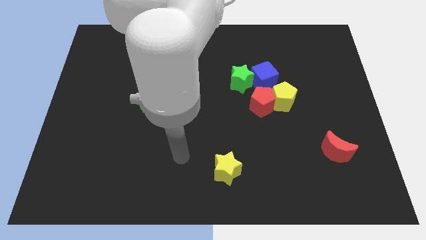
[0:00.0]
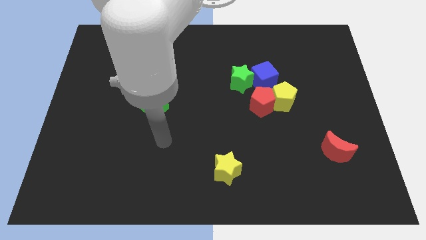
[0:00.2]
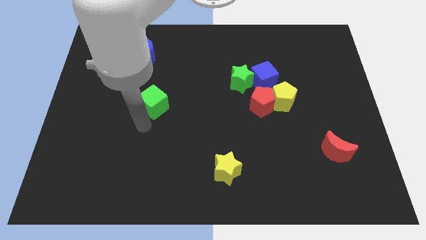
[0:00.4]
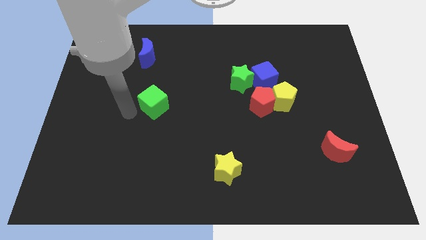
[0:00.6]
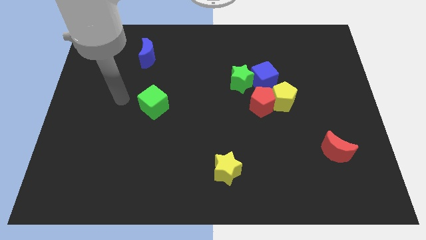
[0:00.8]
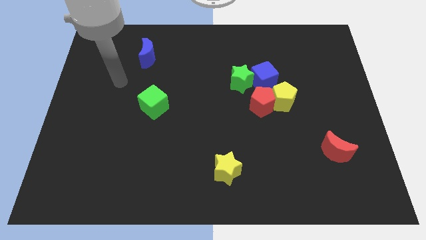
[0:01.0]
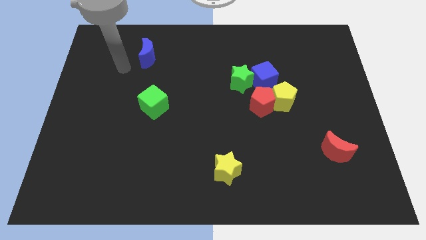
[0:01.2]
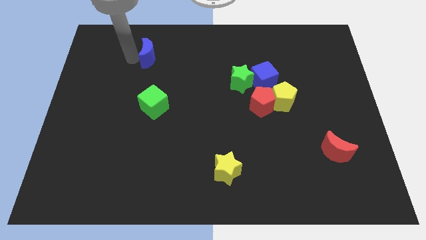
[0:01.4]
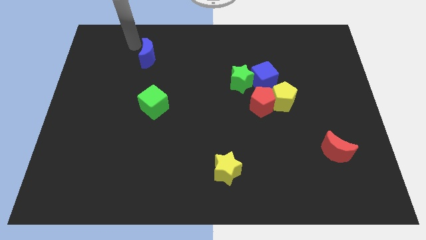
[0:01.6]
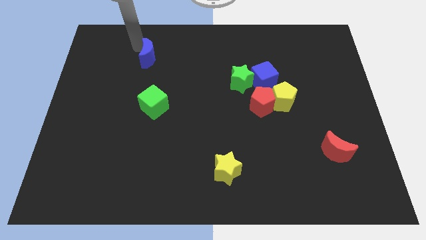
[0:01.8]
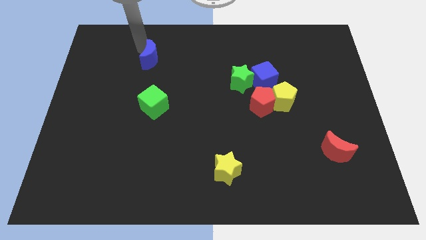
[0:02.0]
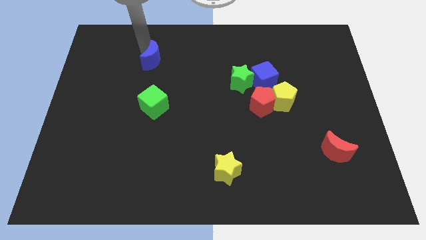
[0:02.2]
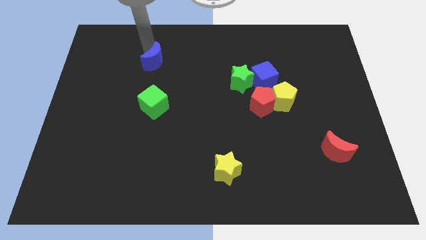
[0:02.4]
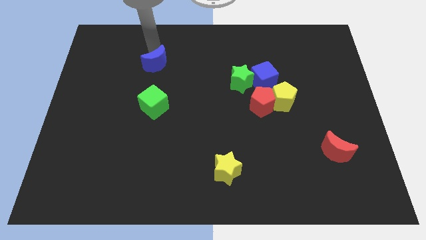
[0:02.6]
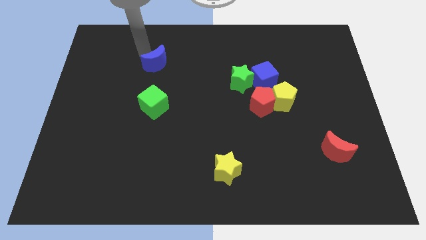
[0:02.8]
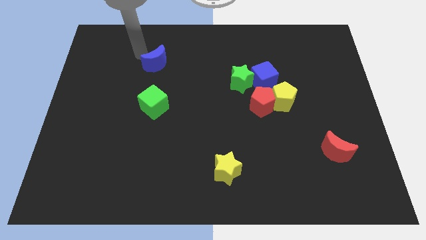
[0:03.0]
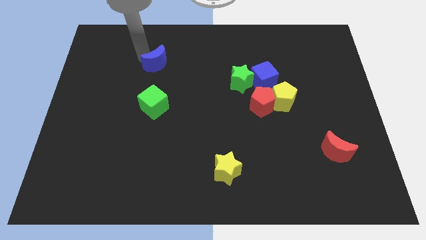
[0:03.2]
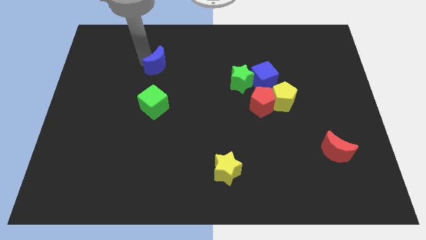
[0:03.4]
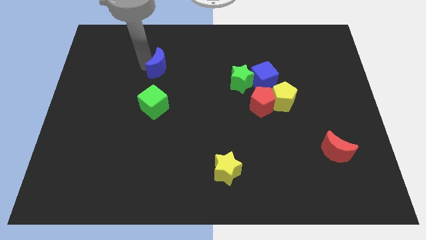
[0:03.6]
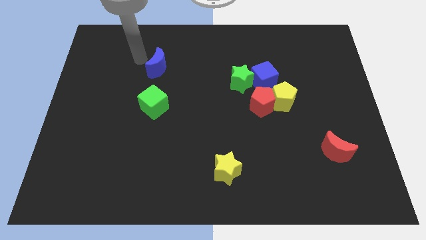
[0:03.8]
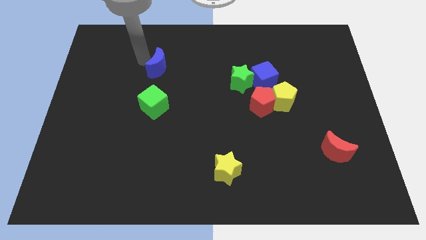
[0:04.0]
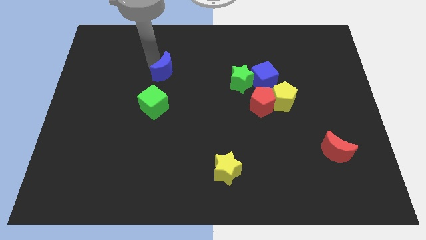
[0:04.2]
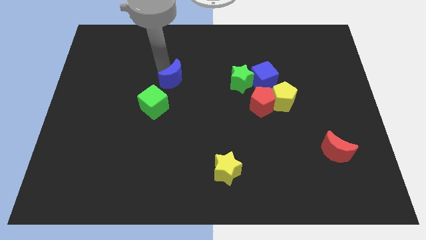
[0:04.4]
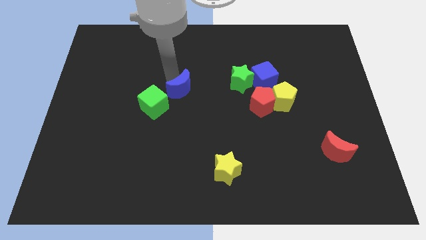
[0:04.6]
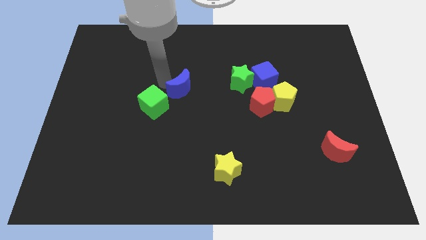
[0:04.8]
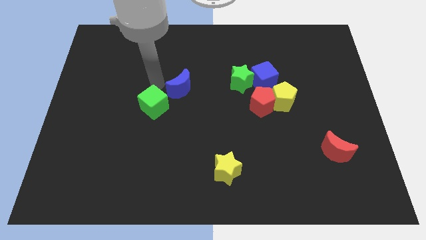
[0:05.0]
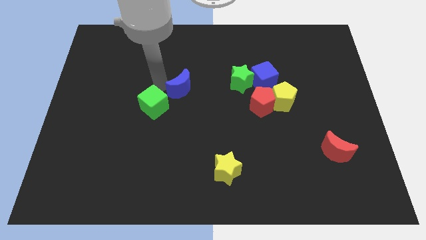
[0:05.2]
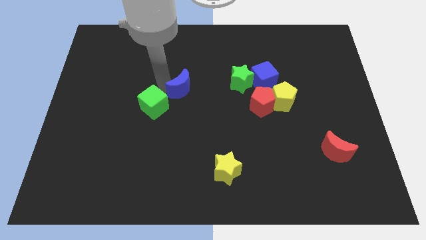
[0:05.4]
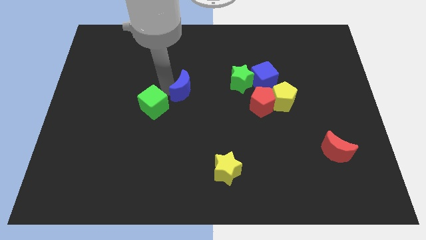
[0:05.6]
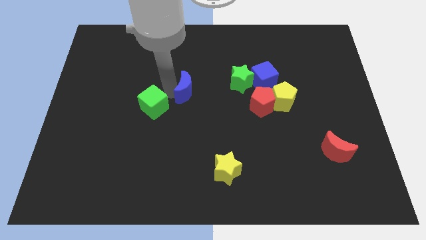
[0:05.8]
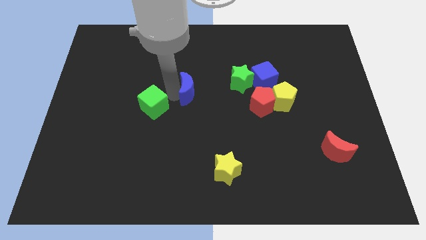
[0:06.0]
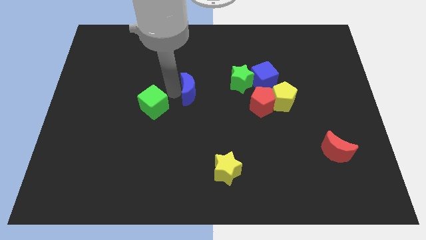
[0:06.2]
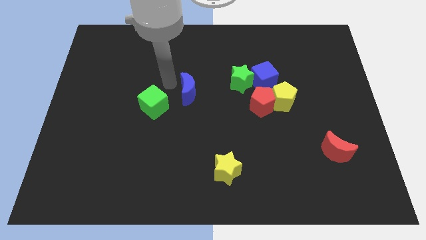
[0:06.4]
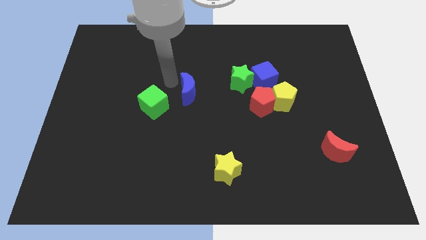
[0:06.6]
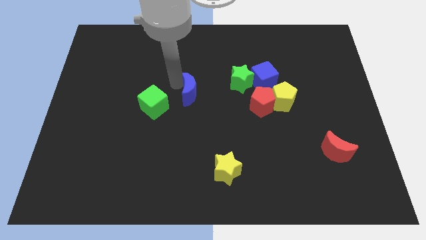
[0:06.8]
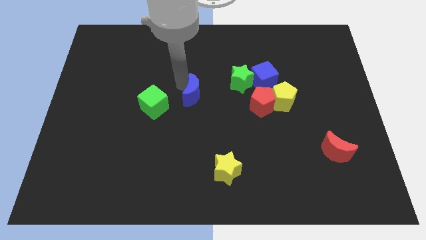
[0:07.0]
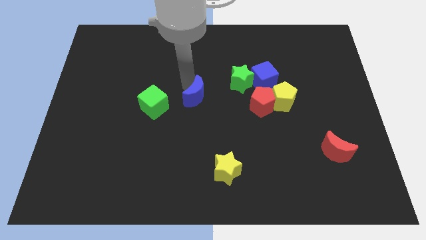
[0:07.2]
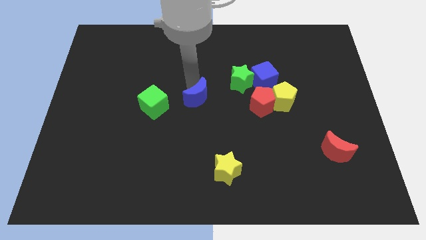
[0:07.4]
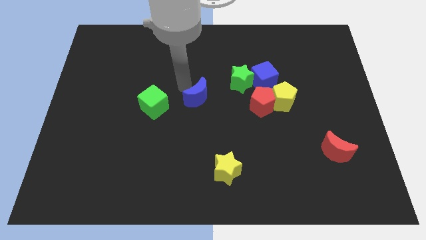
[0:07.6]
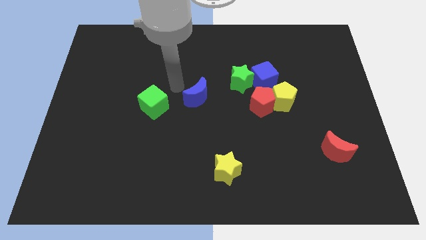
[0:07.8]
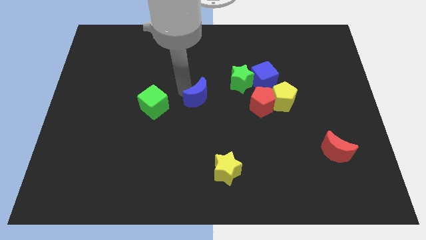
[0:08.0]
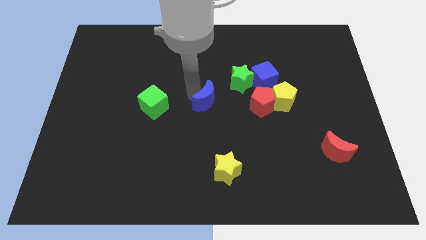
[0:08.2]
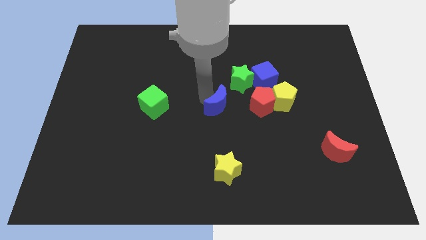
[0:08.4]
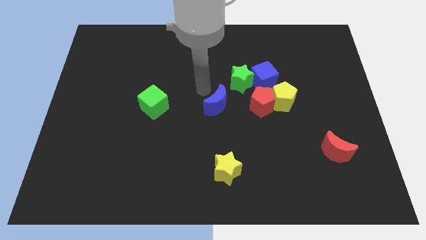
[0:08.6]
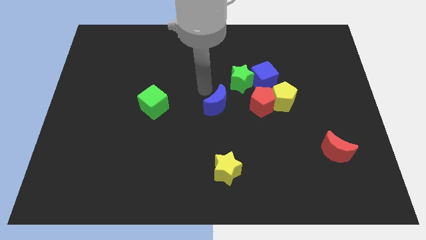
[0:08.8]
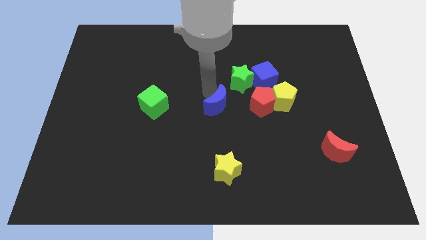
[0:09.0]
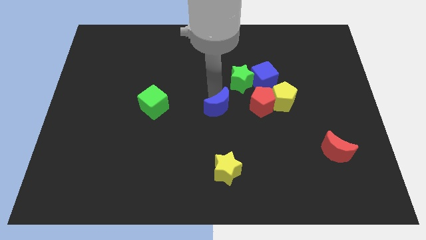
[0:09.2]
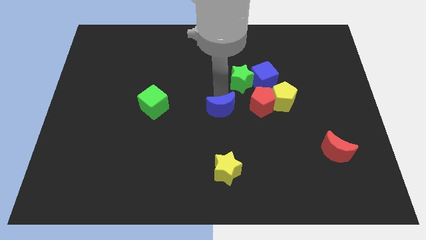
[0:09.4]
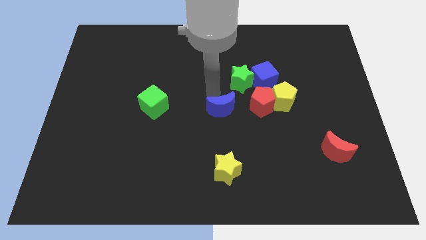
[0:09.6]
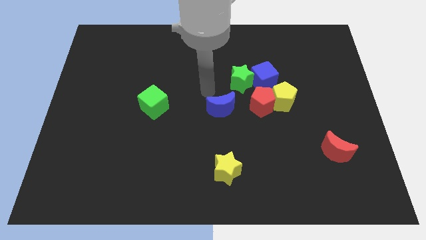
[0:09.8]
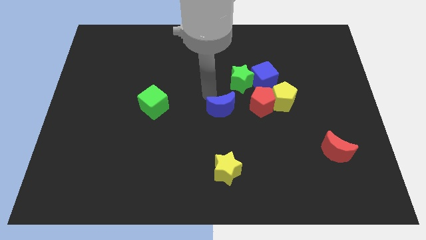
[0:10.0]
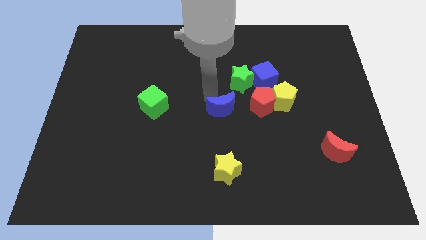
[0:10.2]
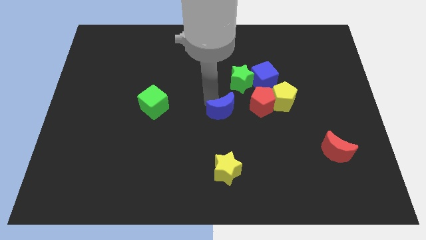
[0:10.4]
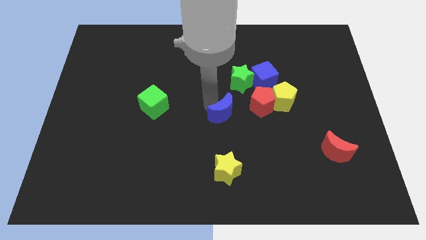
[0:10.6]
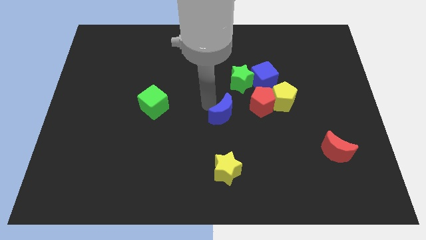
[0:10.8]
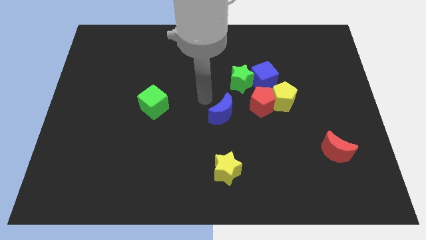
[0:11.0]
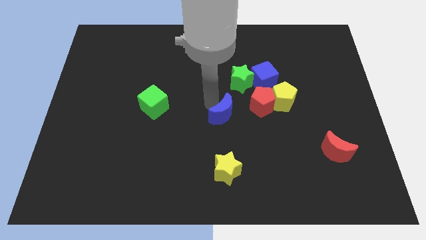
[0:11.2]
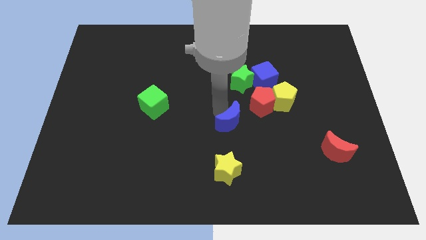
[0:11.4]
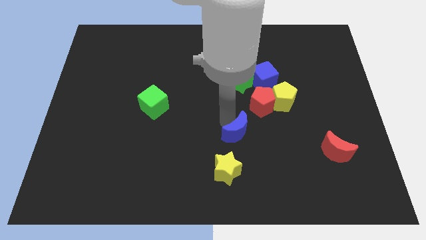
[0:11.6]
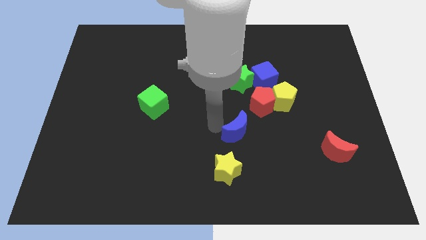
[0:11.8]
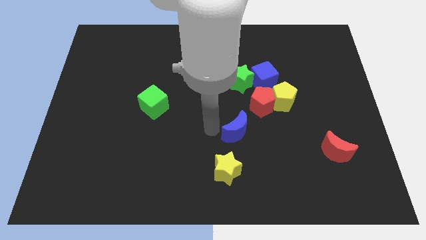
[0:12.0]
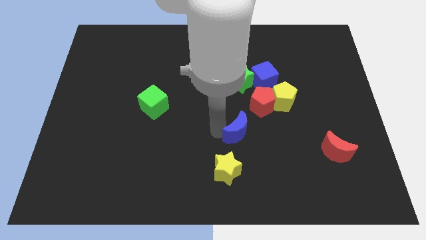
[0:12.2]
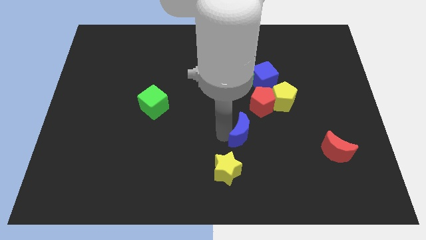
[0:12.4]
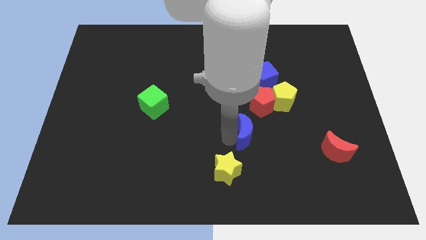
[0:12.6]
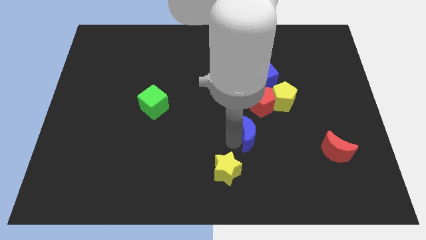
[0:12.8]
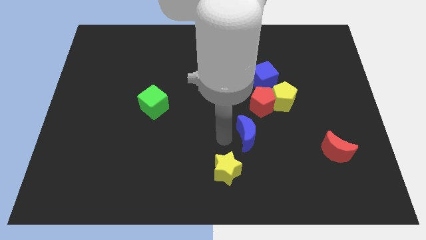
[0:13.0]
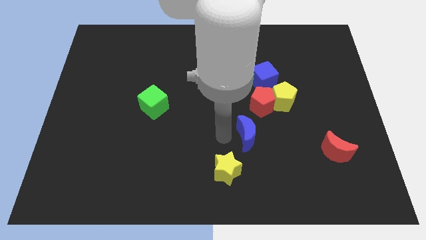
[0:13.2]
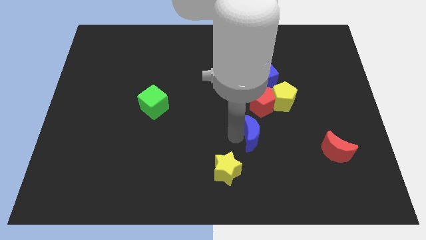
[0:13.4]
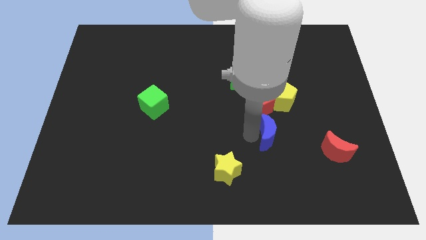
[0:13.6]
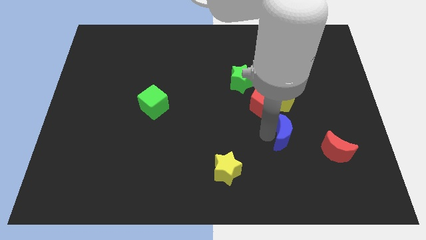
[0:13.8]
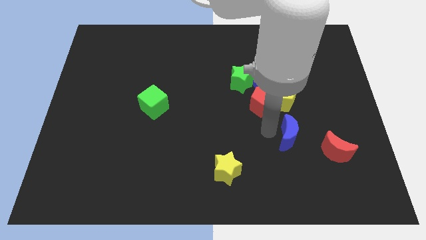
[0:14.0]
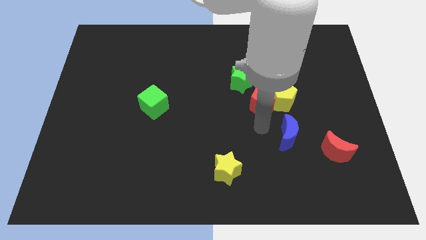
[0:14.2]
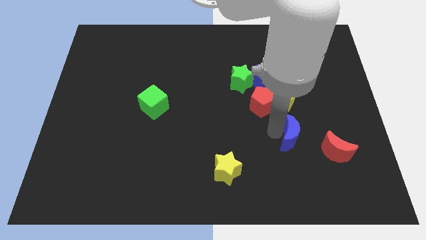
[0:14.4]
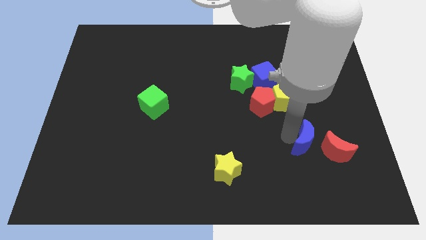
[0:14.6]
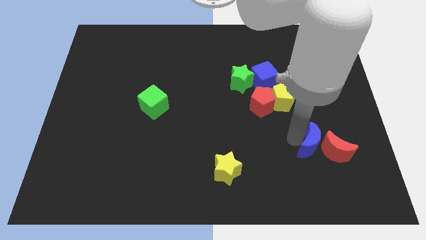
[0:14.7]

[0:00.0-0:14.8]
move the blue moon close to the red moon
